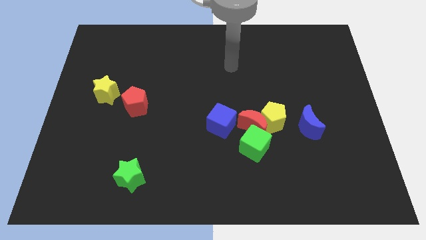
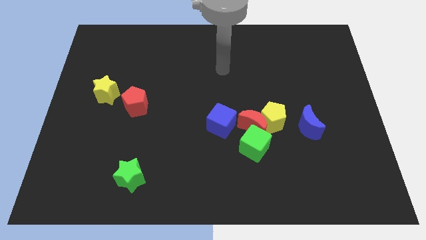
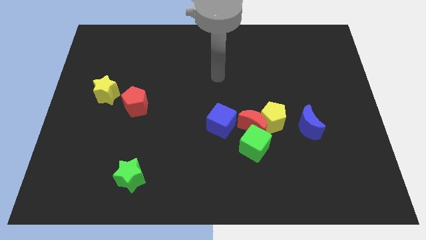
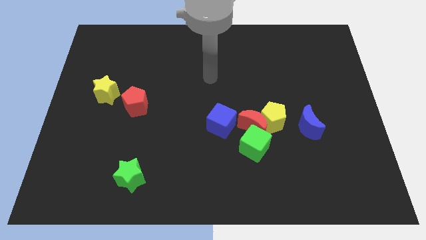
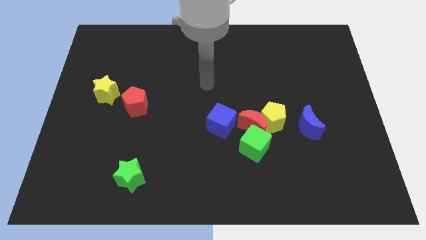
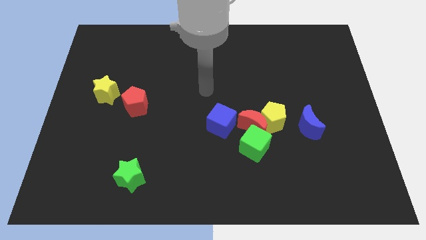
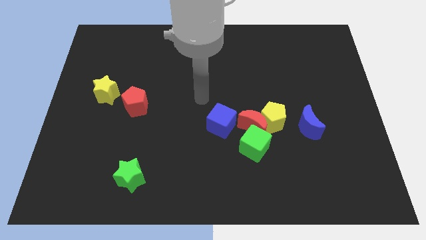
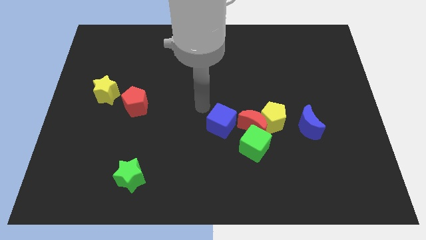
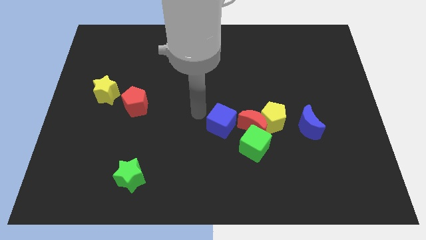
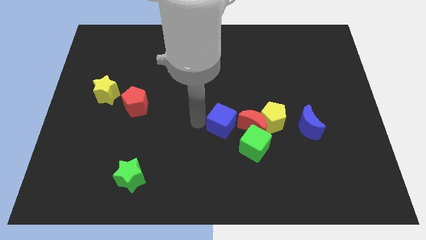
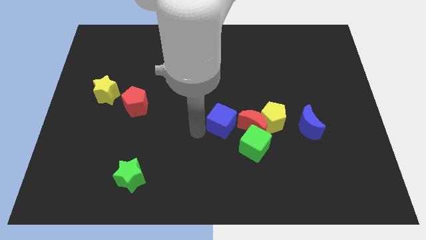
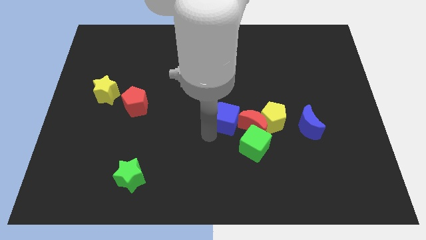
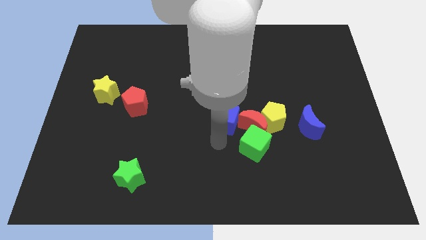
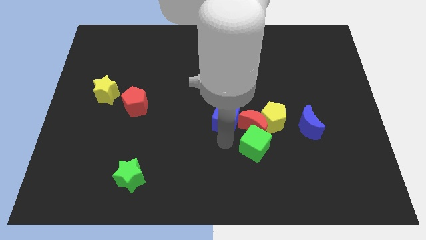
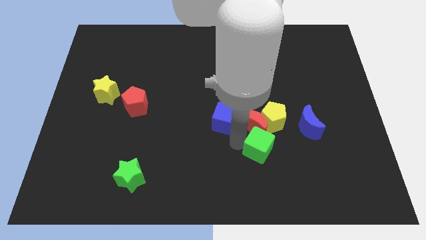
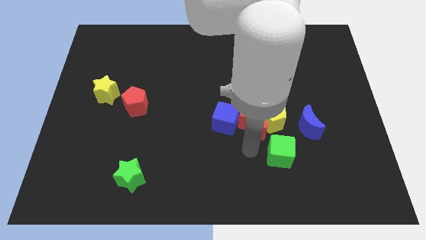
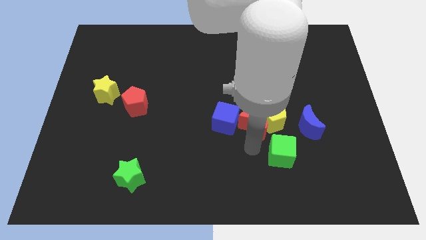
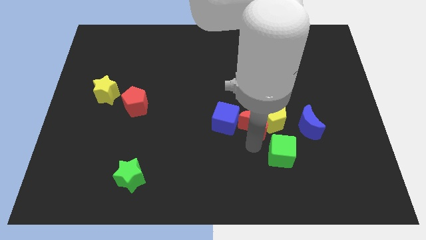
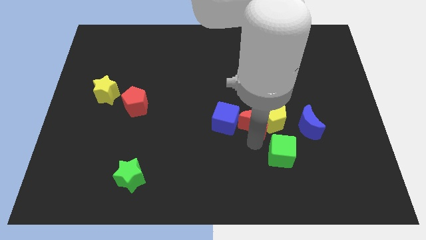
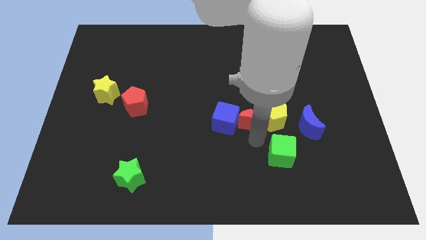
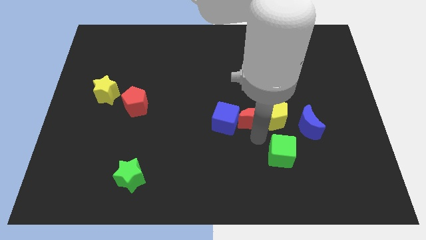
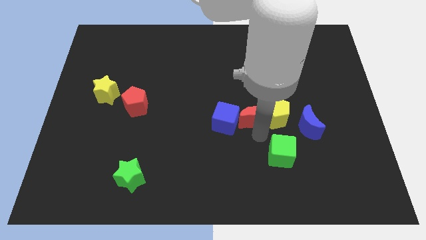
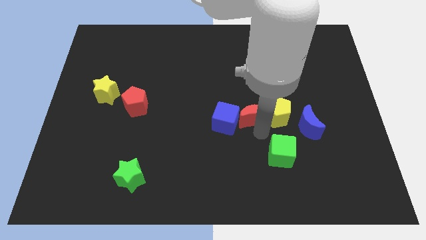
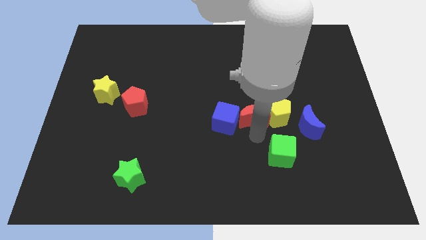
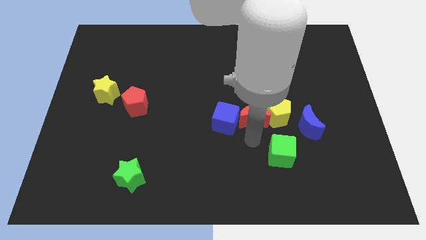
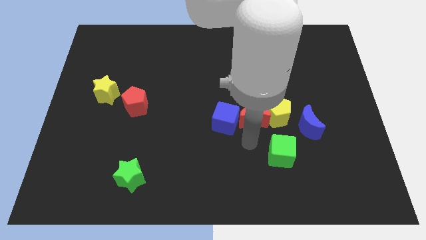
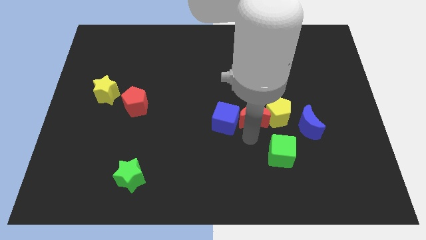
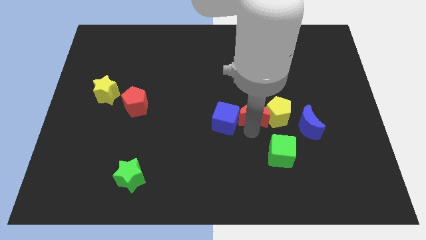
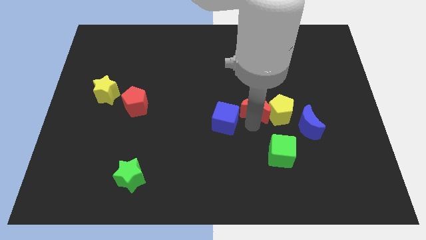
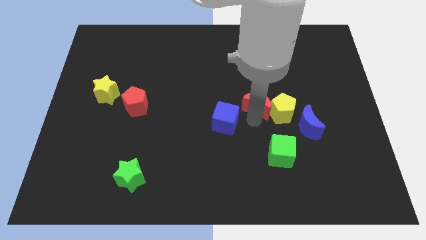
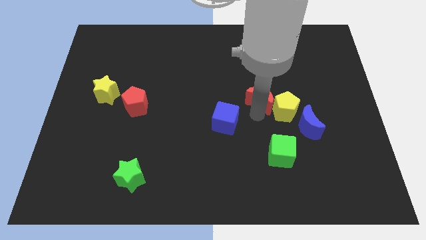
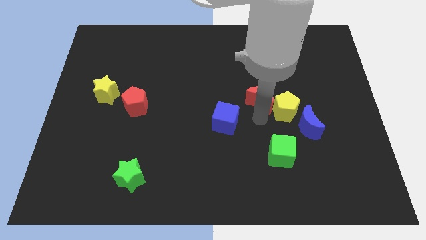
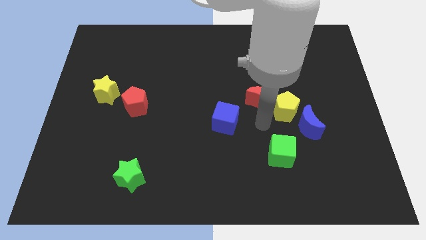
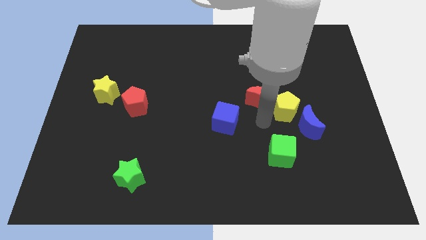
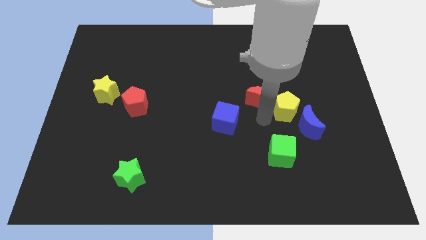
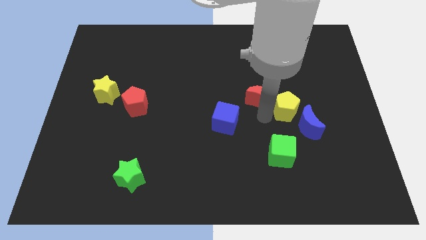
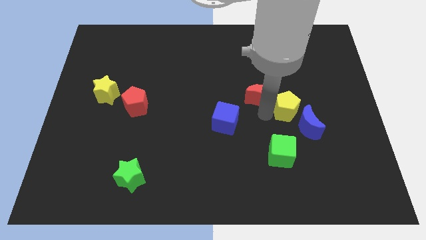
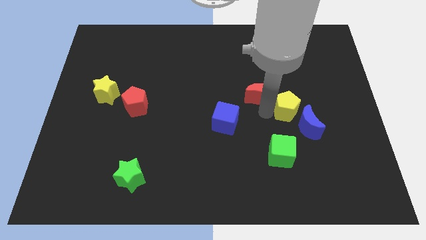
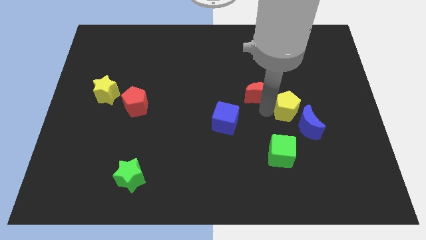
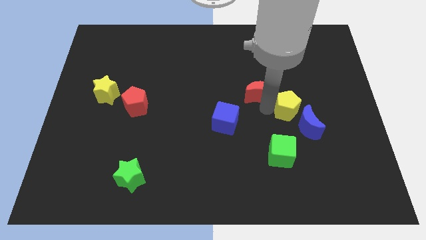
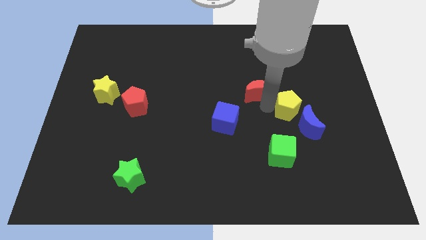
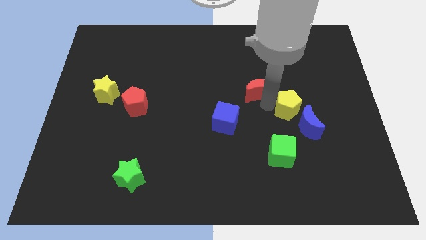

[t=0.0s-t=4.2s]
separate the red moon from the yellow pentagon, green cube, and blue cube

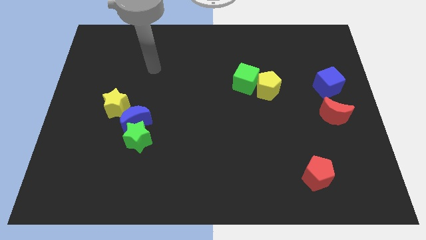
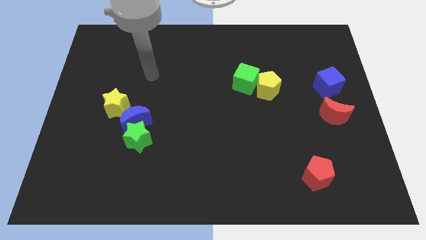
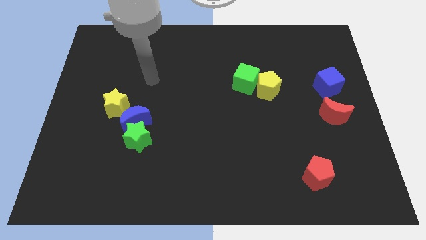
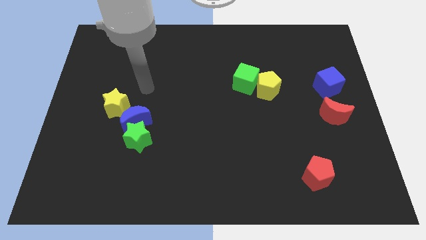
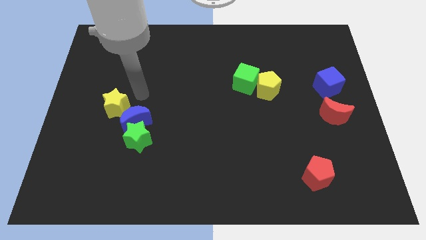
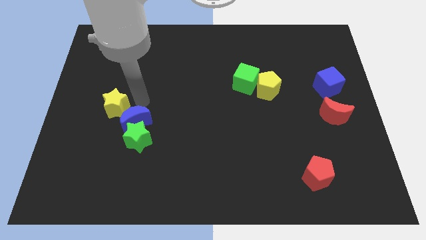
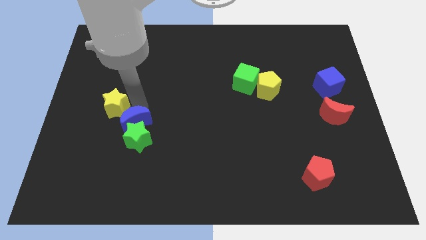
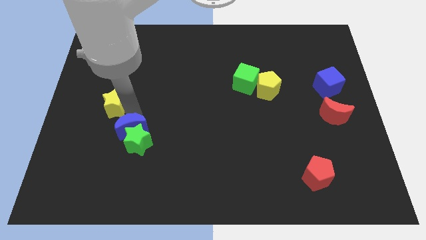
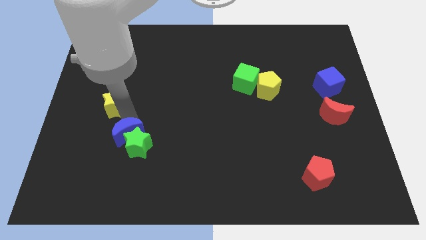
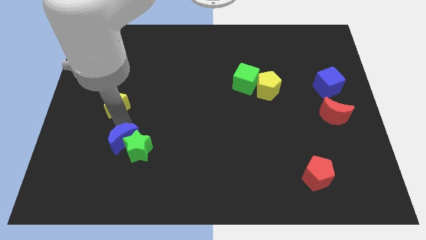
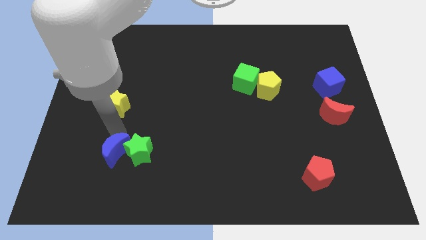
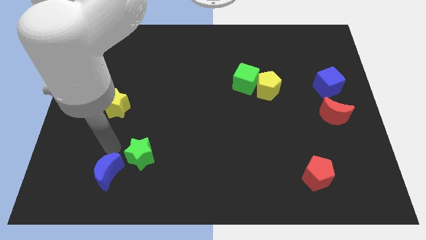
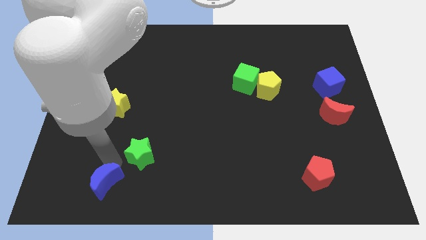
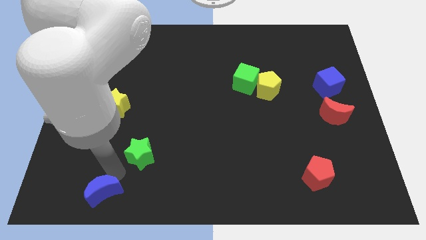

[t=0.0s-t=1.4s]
move the green star away from the blue moon

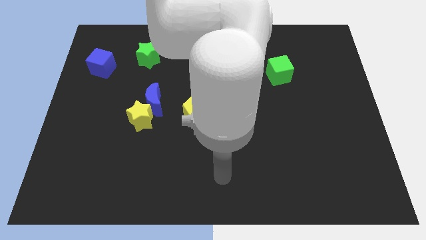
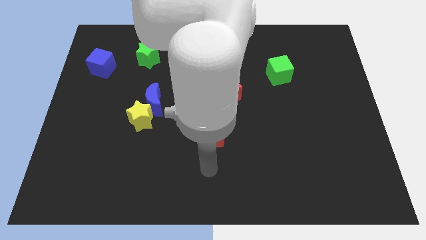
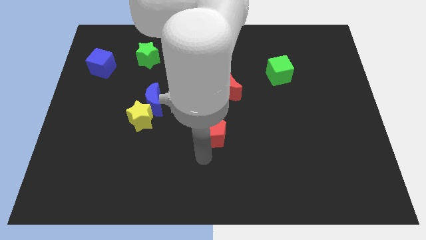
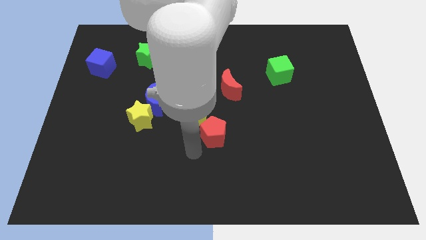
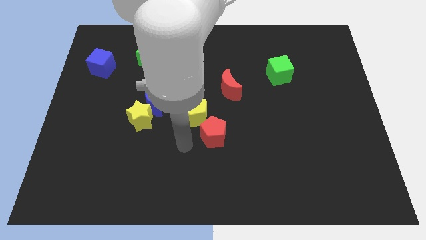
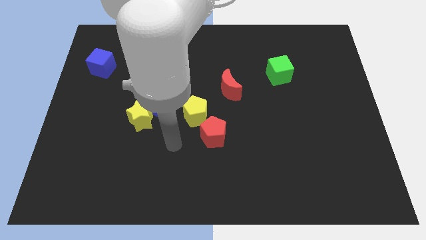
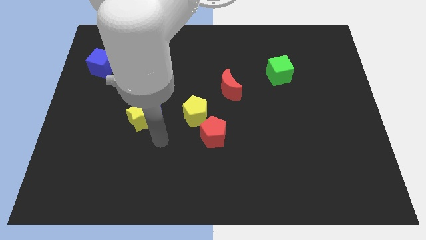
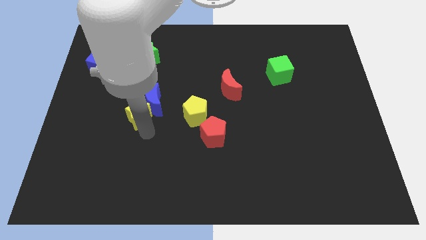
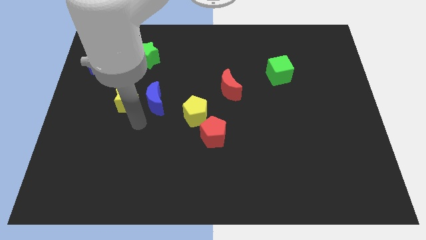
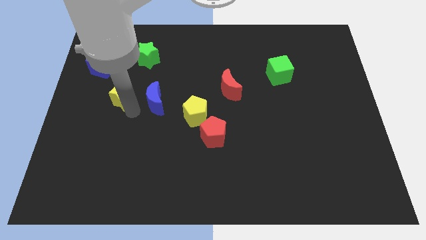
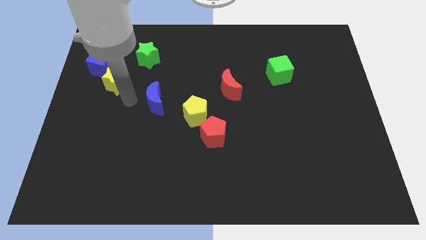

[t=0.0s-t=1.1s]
move the blue moon away from the yellow star

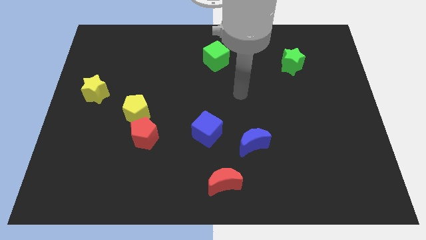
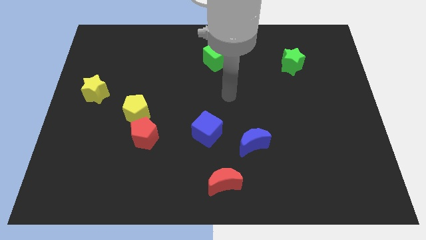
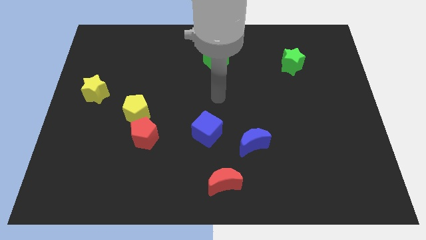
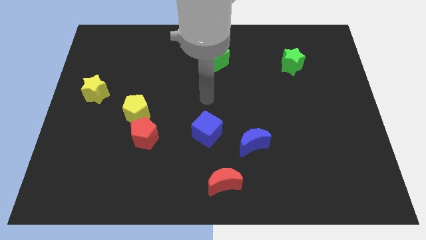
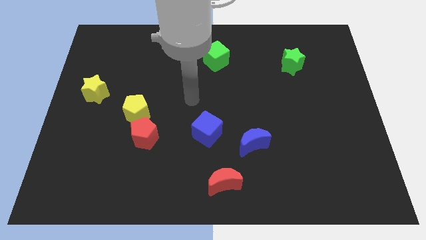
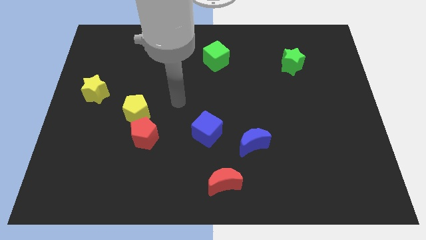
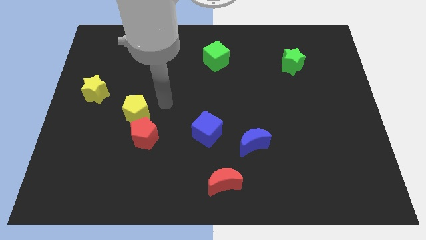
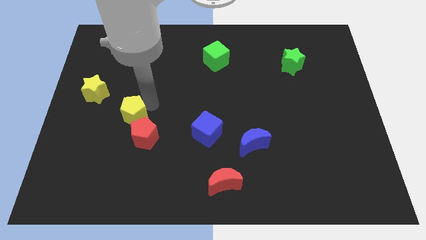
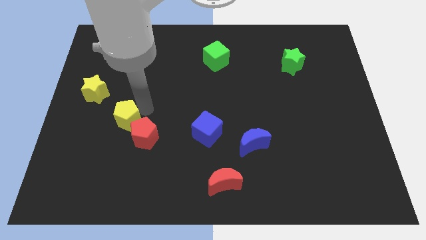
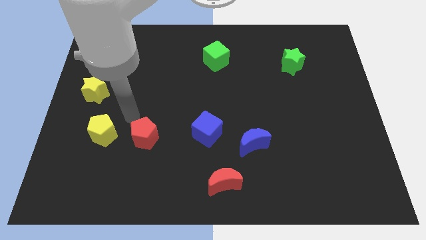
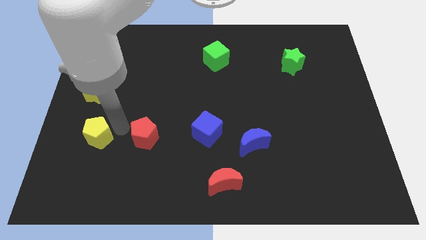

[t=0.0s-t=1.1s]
move the red pentagon away from the yellow pentagon

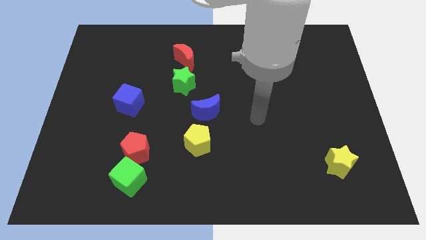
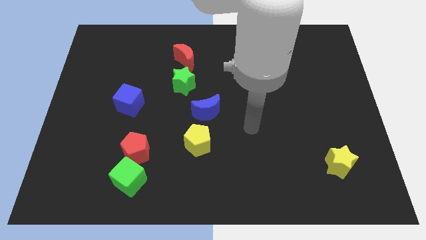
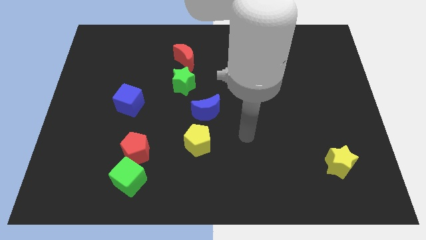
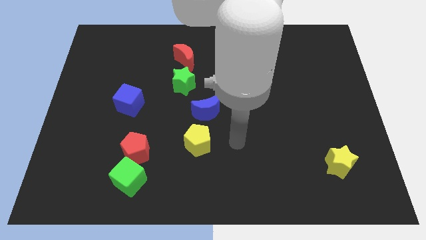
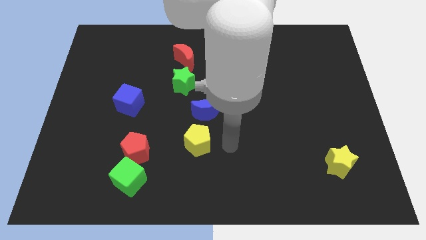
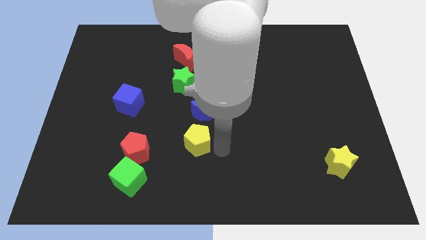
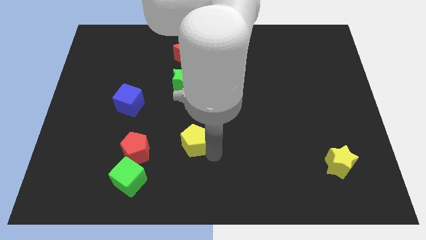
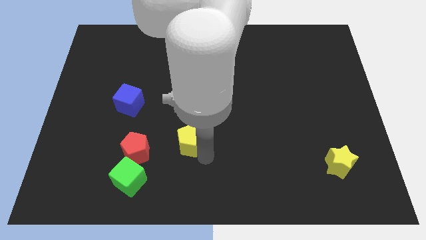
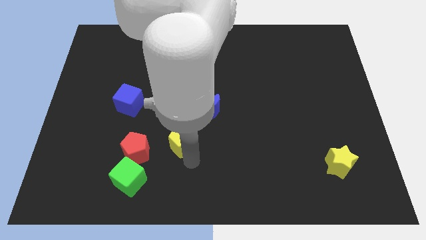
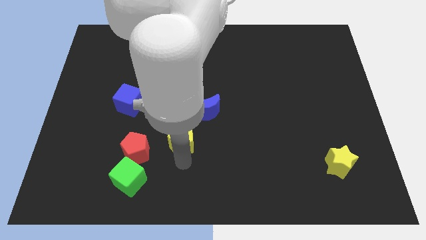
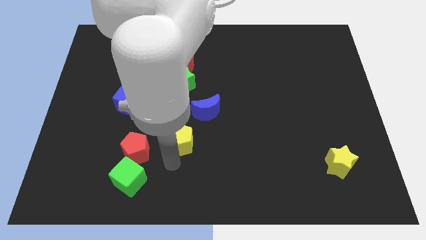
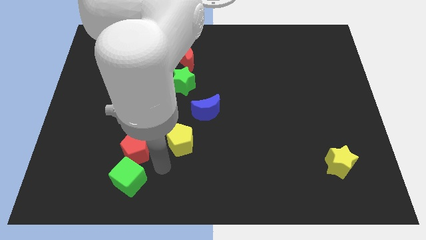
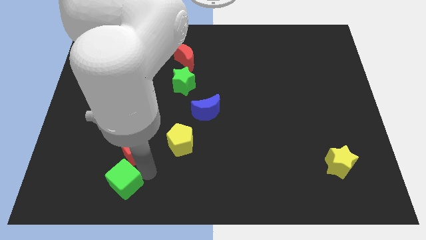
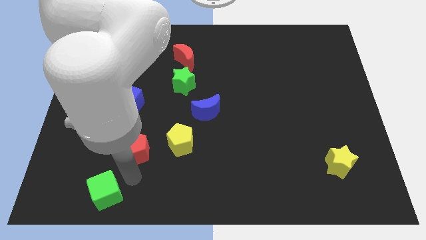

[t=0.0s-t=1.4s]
separate the red pentagon from the green cube
